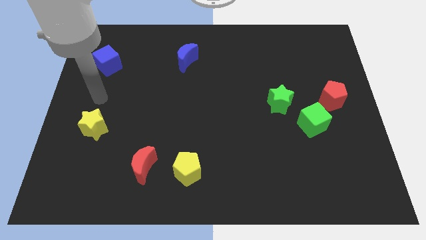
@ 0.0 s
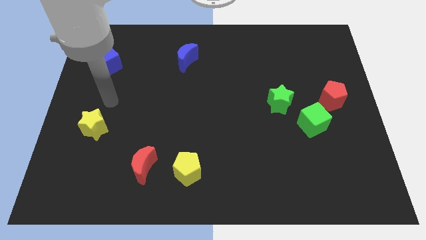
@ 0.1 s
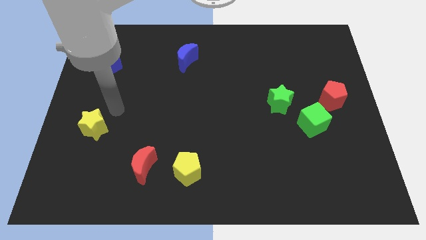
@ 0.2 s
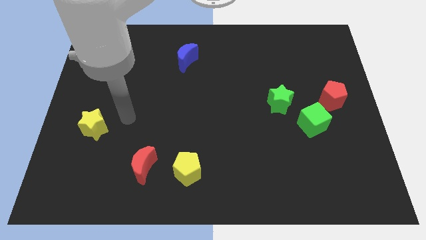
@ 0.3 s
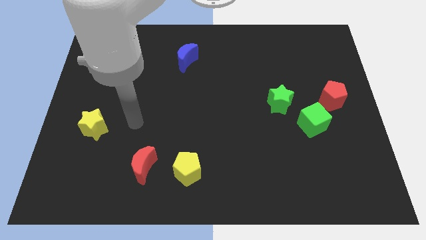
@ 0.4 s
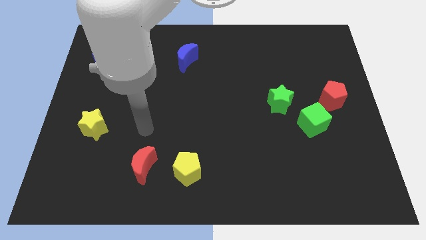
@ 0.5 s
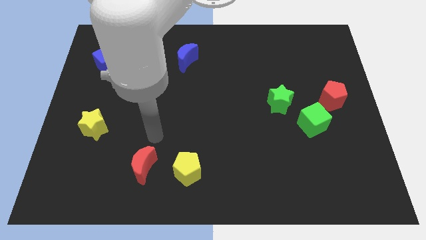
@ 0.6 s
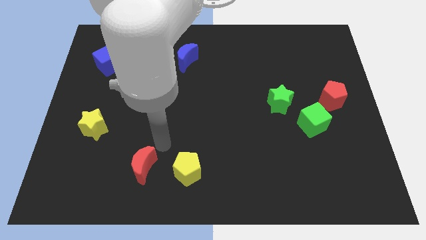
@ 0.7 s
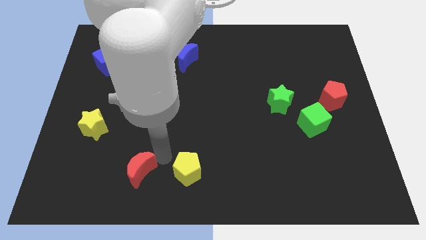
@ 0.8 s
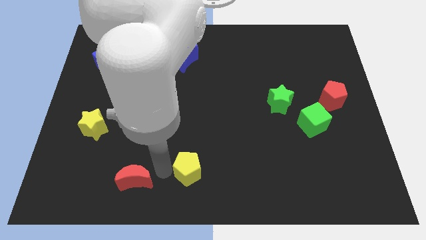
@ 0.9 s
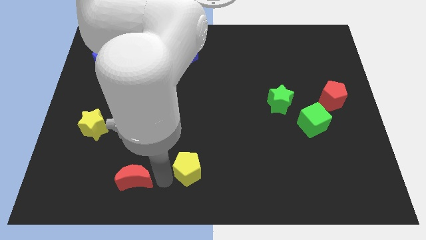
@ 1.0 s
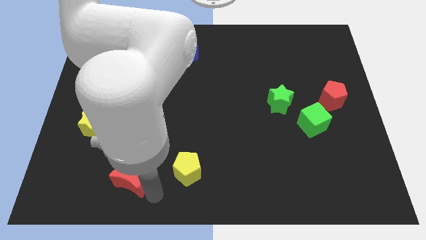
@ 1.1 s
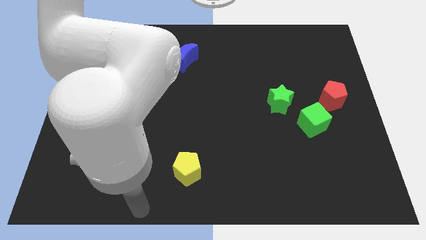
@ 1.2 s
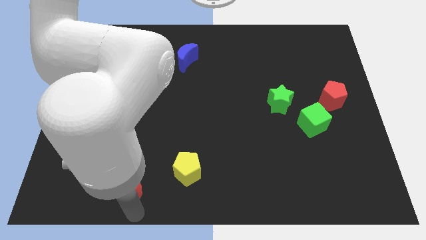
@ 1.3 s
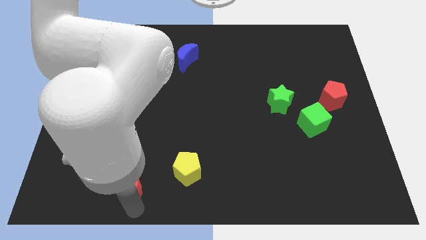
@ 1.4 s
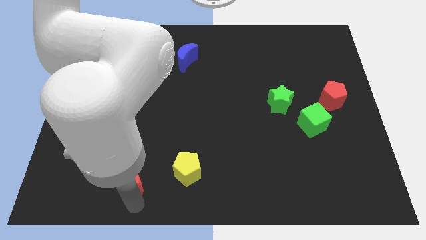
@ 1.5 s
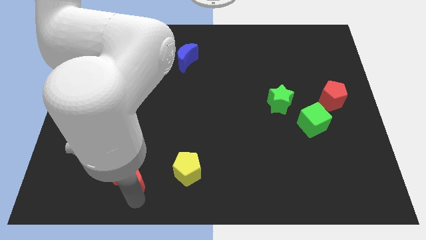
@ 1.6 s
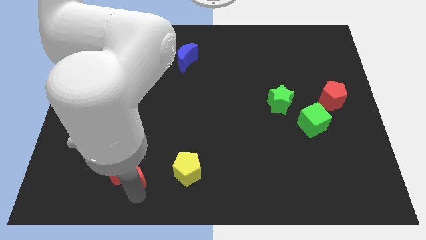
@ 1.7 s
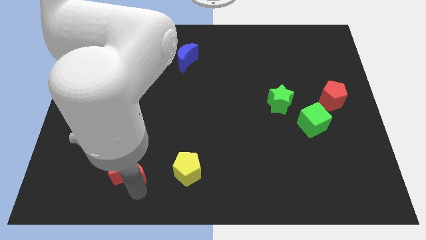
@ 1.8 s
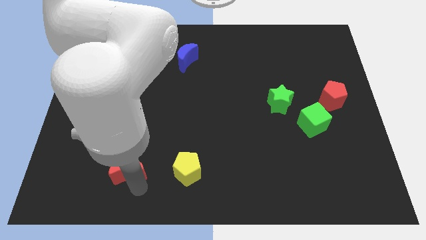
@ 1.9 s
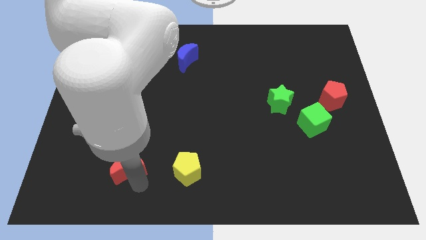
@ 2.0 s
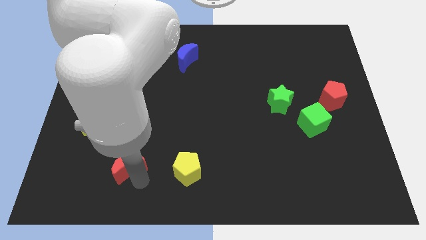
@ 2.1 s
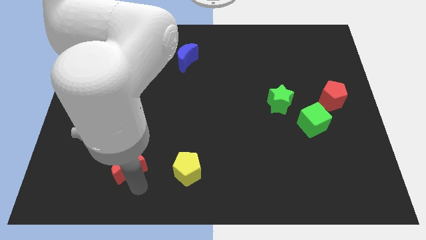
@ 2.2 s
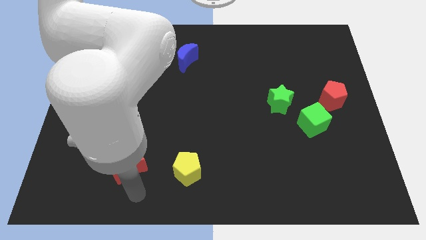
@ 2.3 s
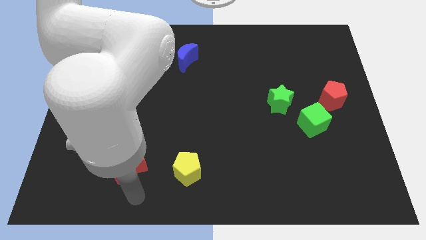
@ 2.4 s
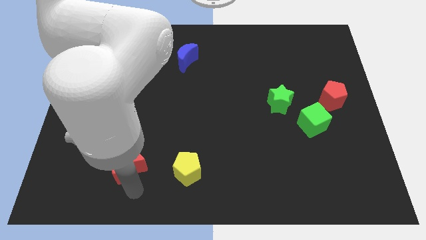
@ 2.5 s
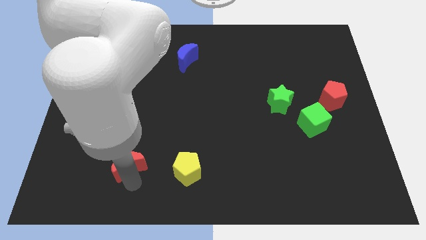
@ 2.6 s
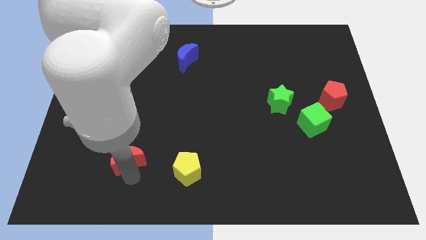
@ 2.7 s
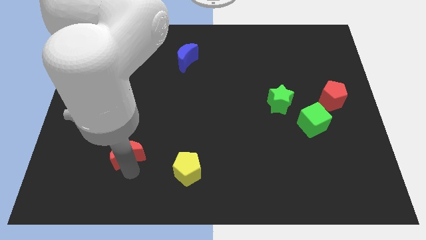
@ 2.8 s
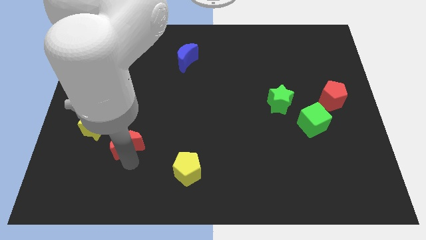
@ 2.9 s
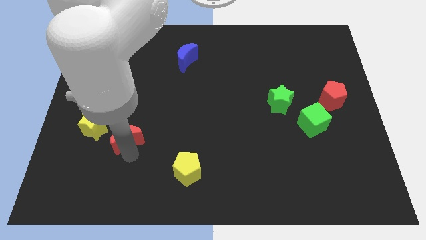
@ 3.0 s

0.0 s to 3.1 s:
push the red moon somewhat diagonally upwards and to the left

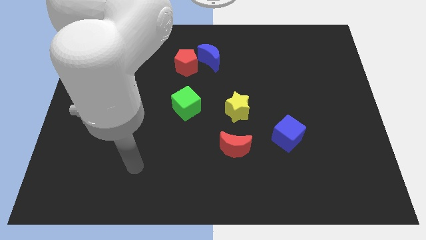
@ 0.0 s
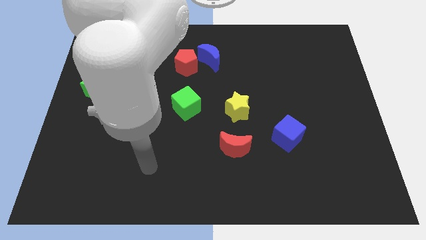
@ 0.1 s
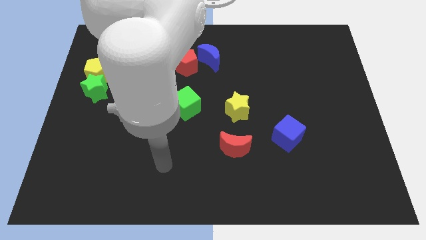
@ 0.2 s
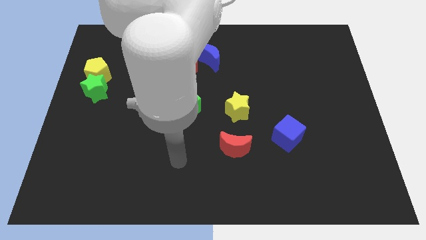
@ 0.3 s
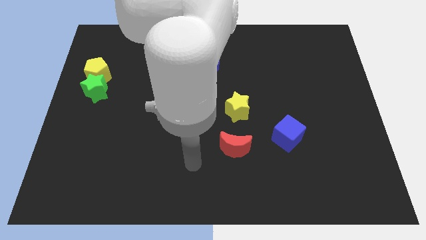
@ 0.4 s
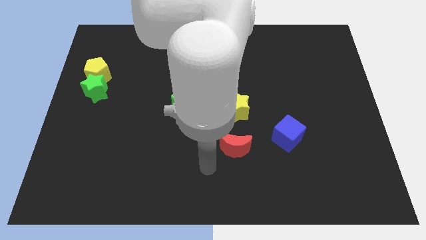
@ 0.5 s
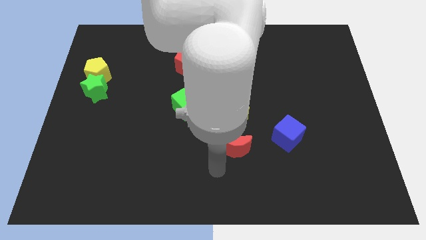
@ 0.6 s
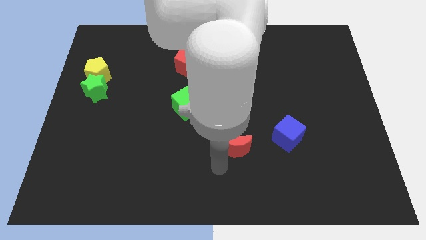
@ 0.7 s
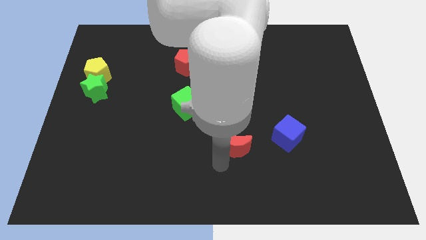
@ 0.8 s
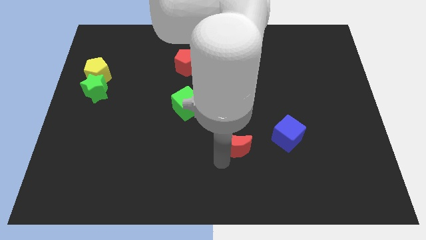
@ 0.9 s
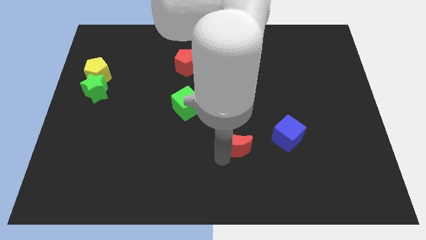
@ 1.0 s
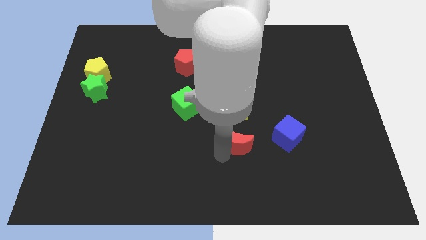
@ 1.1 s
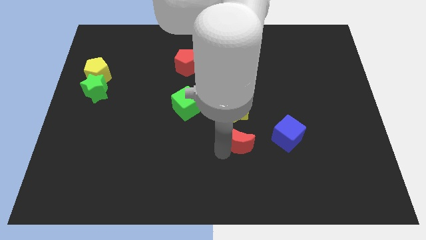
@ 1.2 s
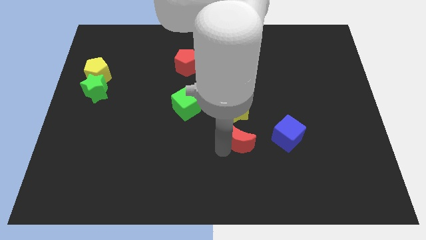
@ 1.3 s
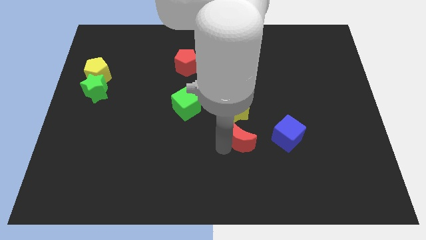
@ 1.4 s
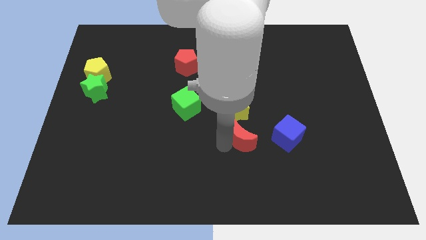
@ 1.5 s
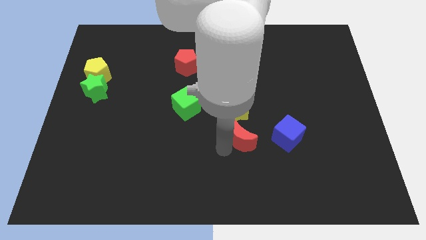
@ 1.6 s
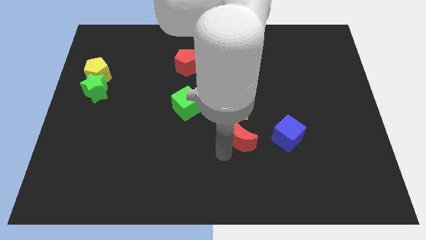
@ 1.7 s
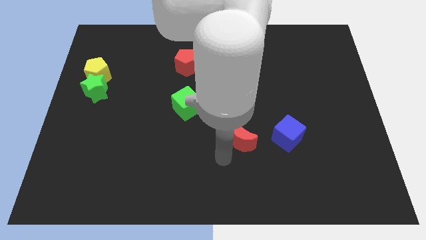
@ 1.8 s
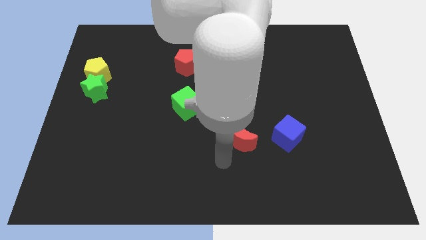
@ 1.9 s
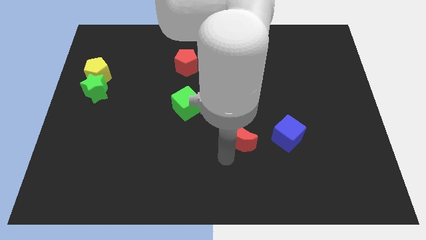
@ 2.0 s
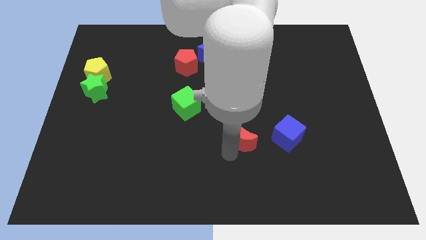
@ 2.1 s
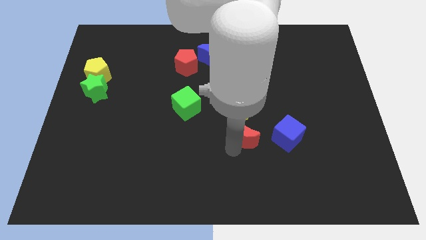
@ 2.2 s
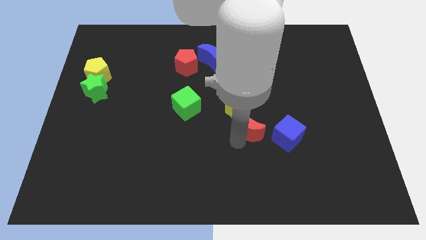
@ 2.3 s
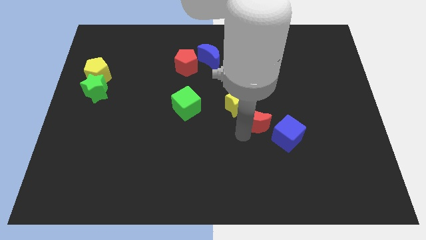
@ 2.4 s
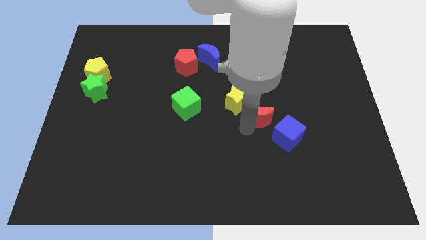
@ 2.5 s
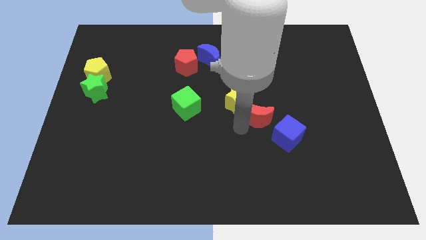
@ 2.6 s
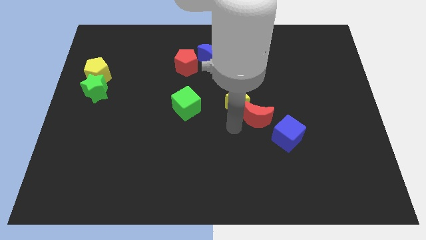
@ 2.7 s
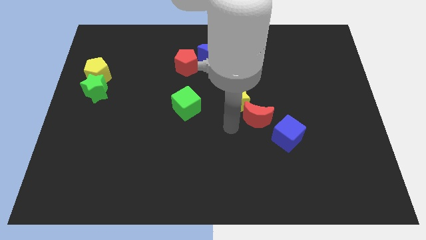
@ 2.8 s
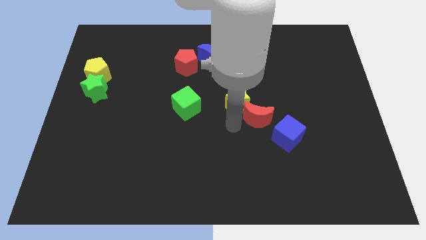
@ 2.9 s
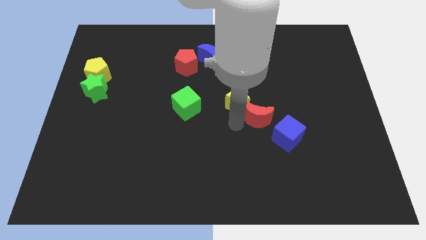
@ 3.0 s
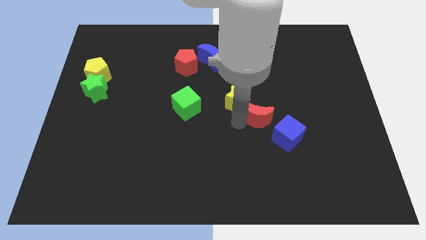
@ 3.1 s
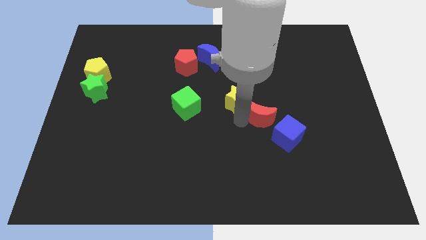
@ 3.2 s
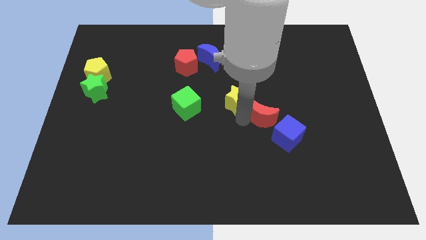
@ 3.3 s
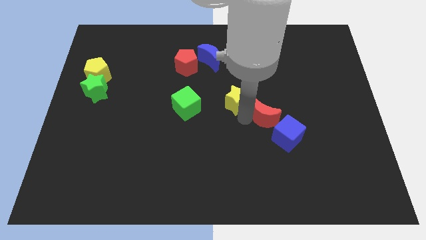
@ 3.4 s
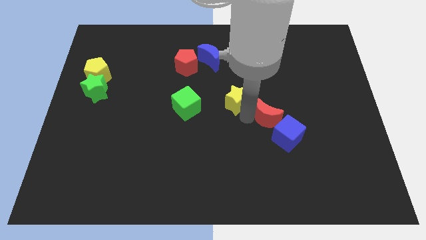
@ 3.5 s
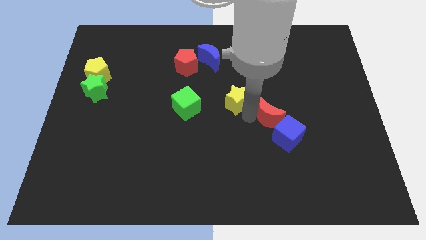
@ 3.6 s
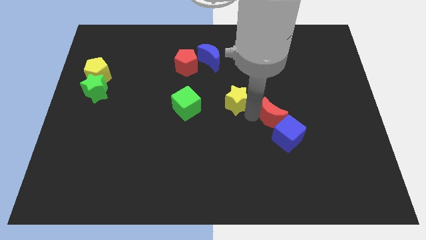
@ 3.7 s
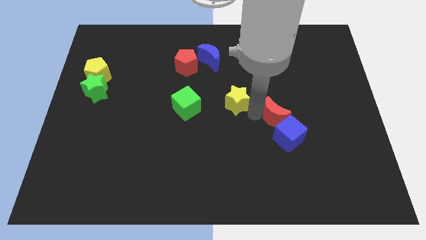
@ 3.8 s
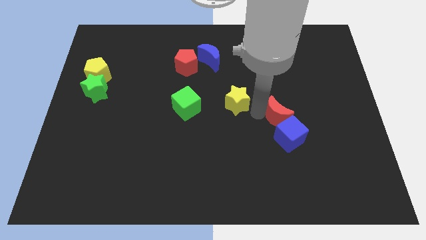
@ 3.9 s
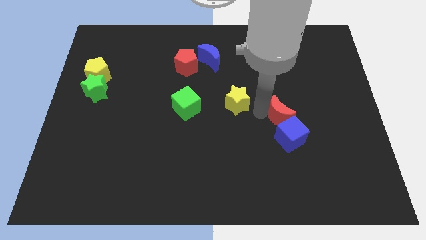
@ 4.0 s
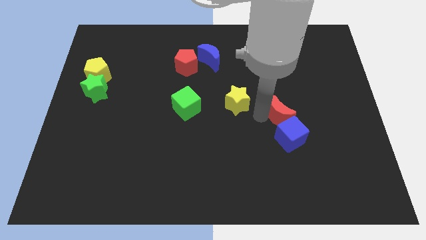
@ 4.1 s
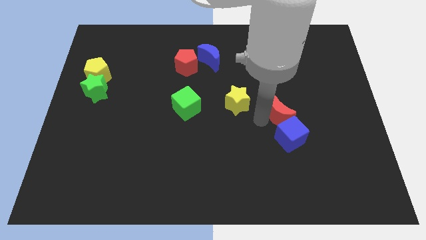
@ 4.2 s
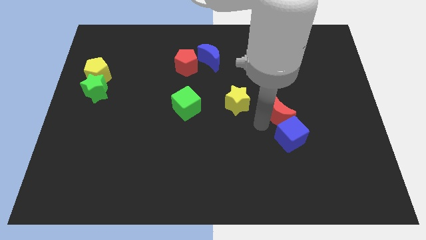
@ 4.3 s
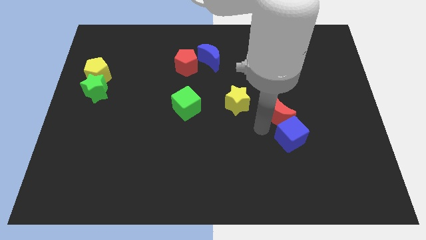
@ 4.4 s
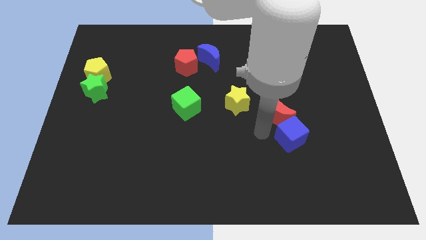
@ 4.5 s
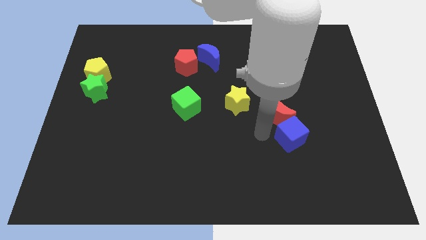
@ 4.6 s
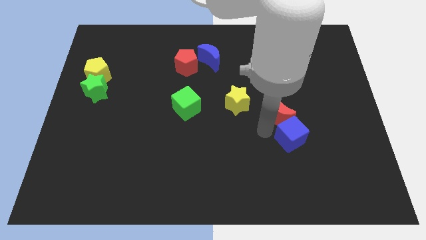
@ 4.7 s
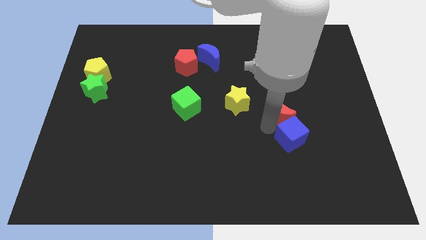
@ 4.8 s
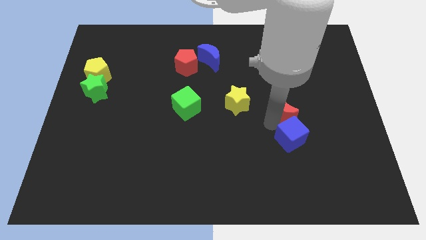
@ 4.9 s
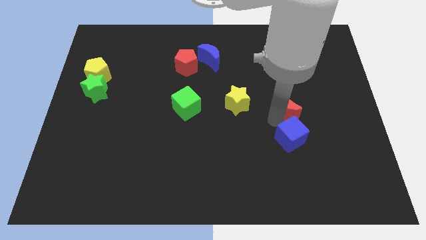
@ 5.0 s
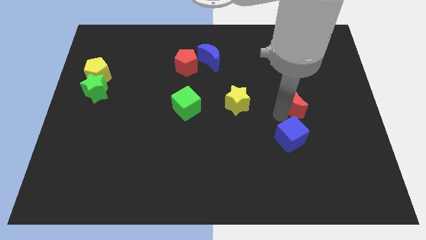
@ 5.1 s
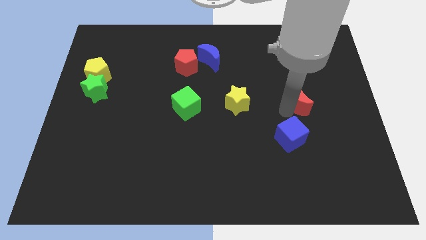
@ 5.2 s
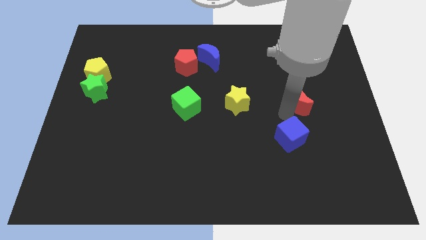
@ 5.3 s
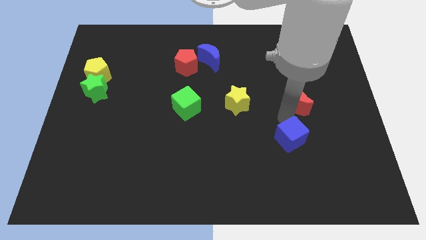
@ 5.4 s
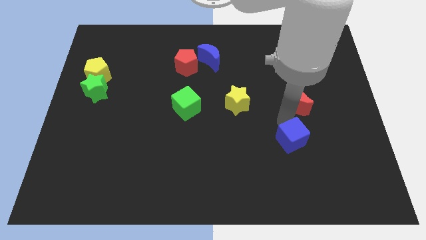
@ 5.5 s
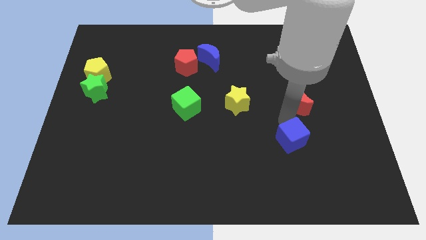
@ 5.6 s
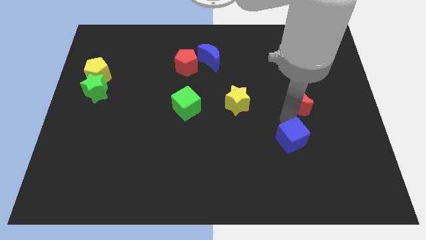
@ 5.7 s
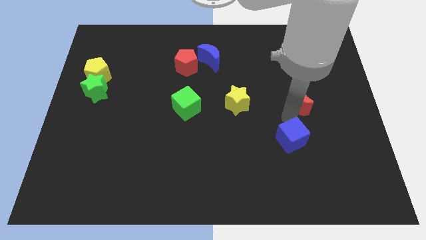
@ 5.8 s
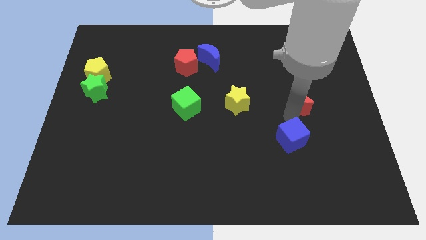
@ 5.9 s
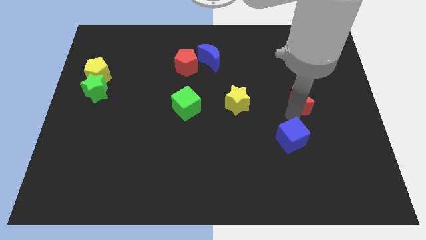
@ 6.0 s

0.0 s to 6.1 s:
move the red moon diagonally up and right
